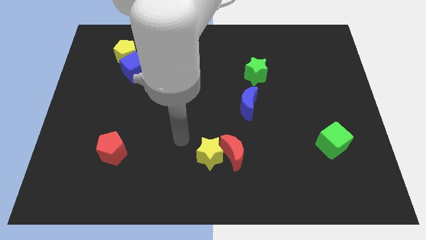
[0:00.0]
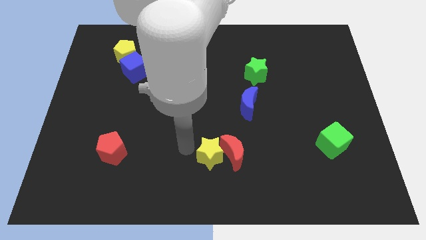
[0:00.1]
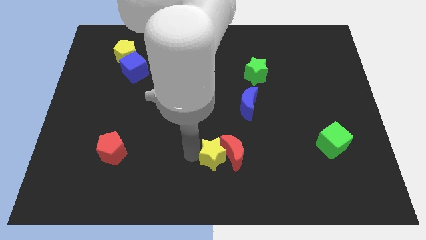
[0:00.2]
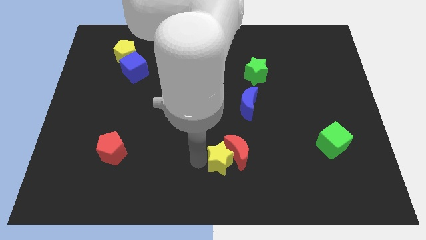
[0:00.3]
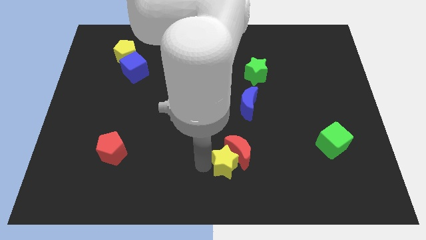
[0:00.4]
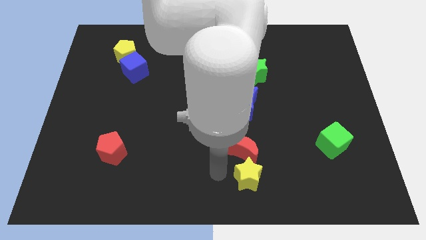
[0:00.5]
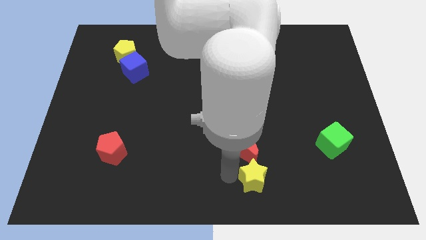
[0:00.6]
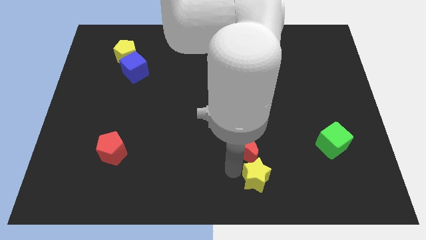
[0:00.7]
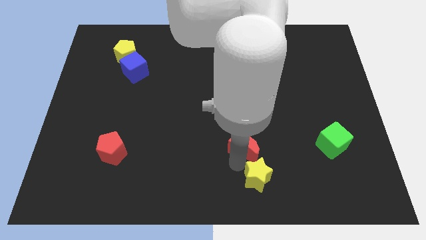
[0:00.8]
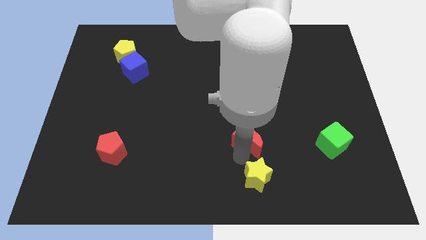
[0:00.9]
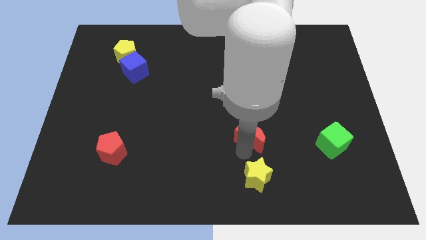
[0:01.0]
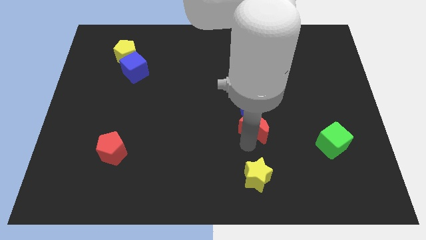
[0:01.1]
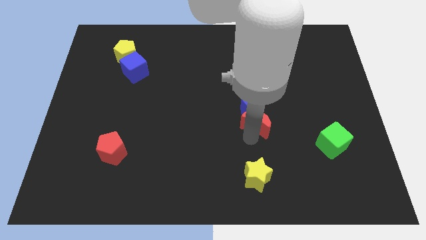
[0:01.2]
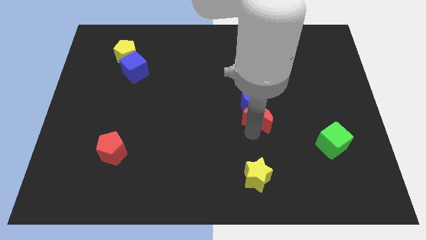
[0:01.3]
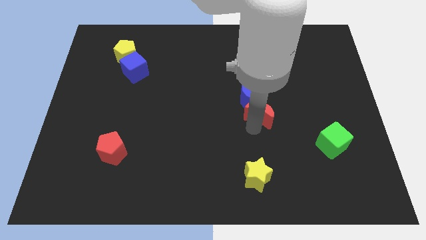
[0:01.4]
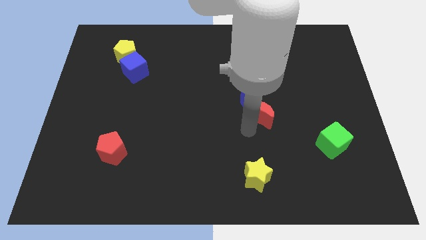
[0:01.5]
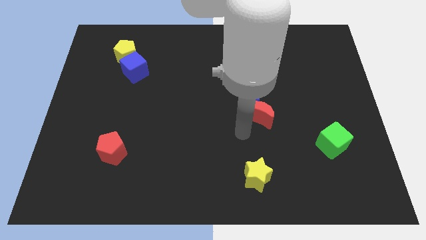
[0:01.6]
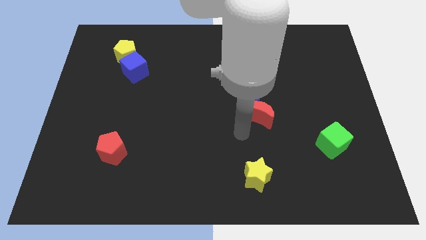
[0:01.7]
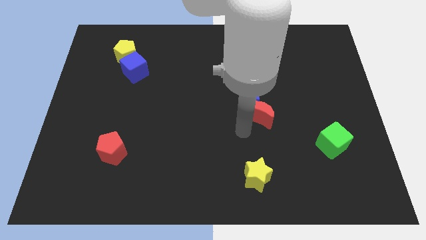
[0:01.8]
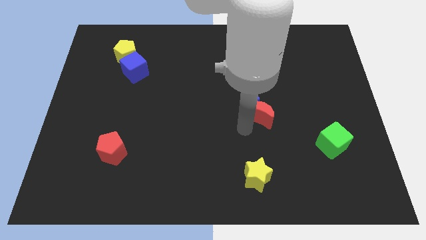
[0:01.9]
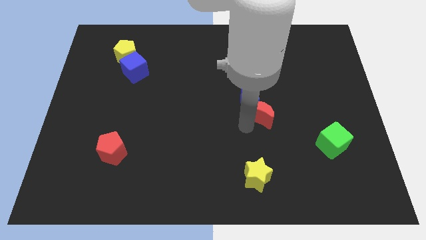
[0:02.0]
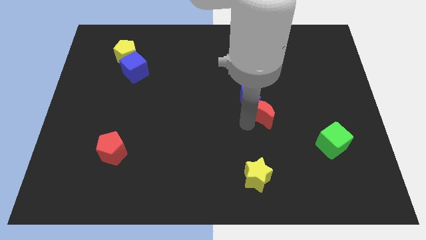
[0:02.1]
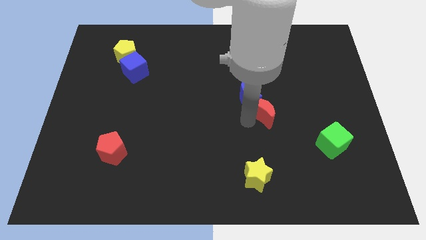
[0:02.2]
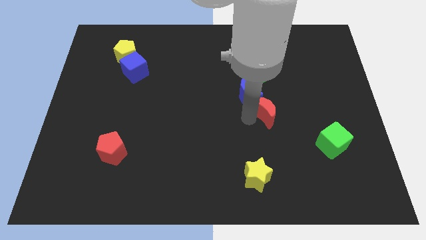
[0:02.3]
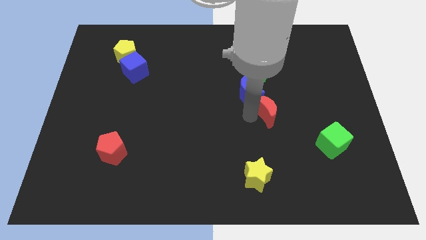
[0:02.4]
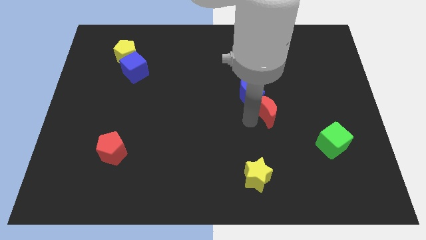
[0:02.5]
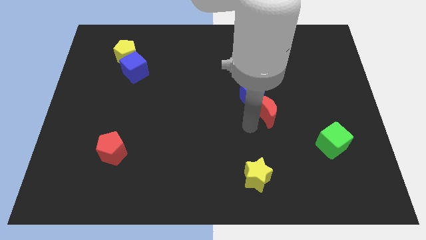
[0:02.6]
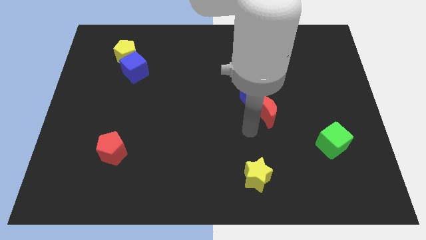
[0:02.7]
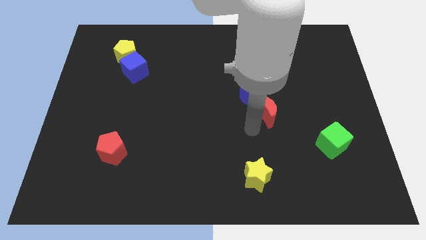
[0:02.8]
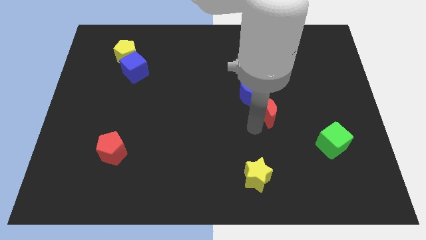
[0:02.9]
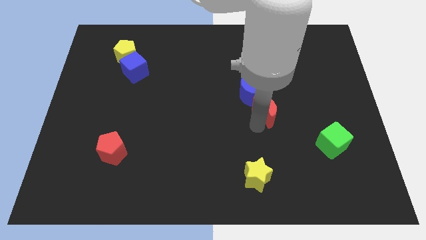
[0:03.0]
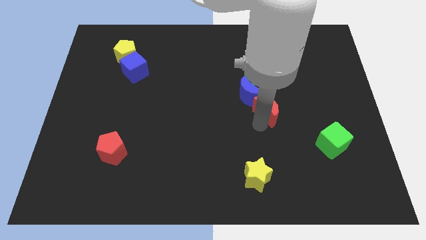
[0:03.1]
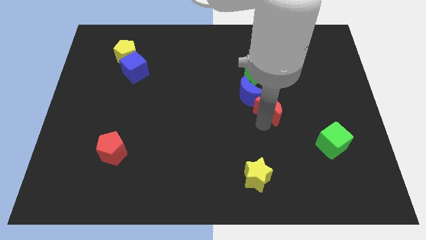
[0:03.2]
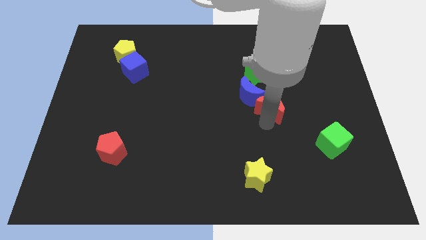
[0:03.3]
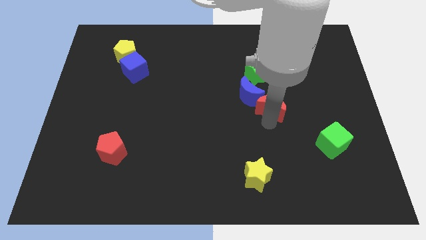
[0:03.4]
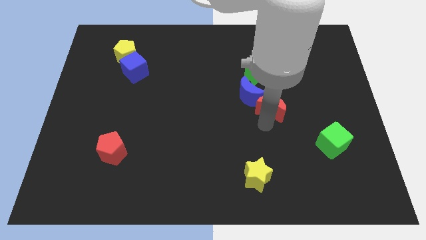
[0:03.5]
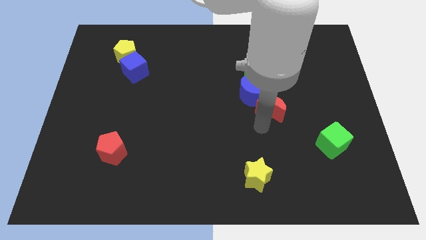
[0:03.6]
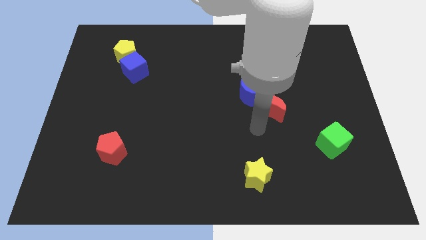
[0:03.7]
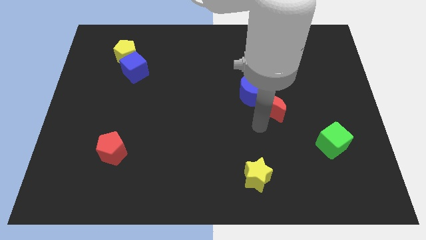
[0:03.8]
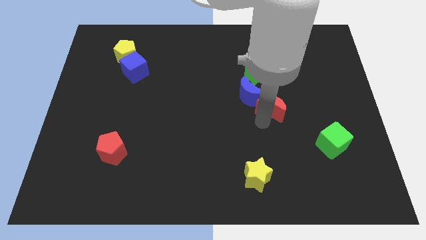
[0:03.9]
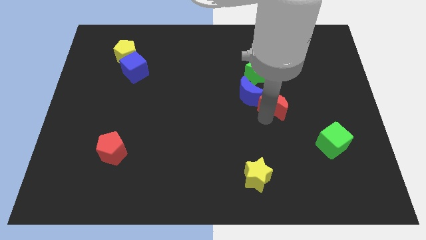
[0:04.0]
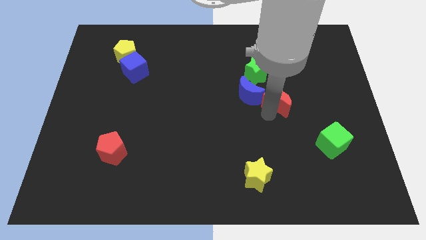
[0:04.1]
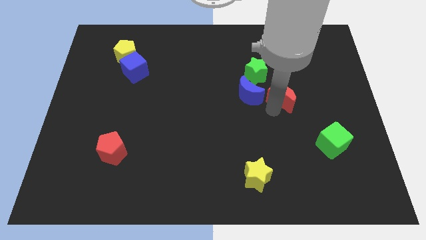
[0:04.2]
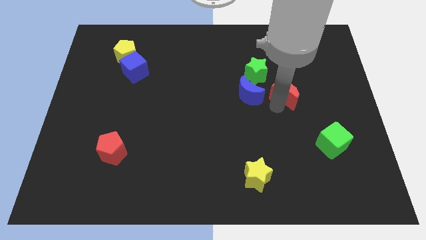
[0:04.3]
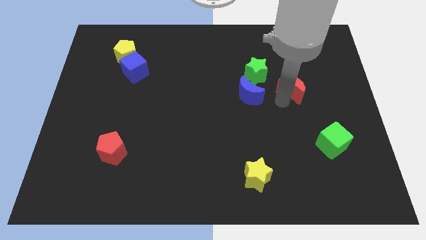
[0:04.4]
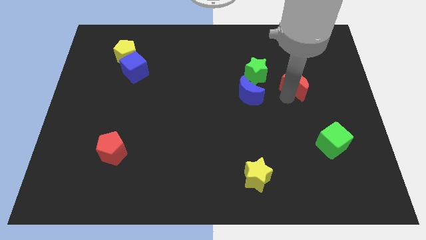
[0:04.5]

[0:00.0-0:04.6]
slide the red moon to the right of the green star

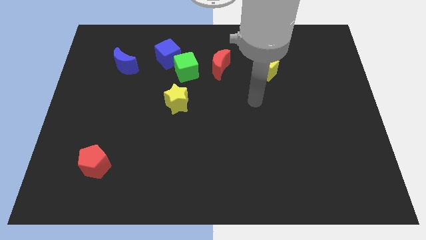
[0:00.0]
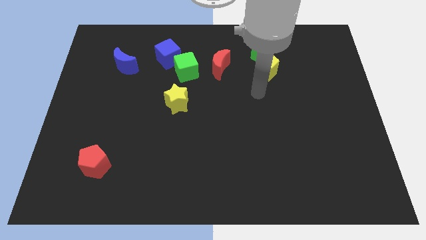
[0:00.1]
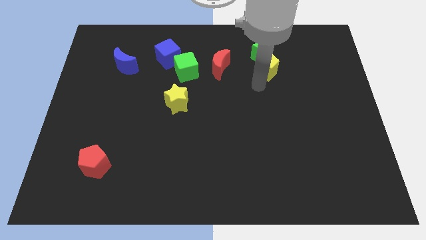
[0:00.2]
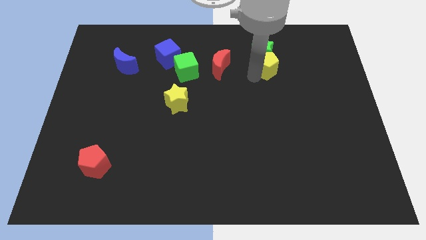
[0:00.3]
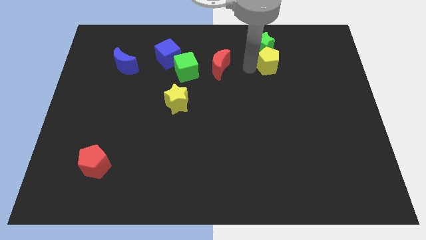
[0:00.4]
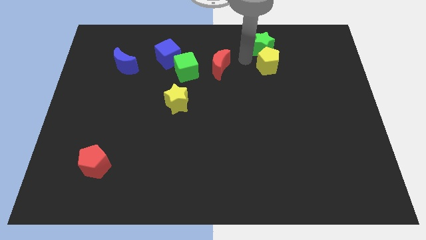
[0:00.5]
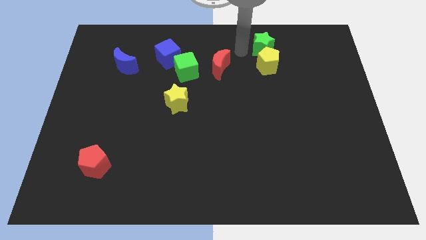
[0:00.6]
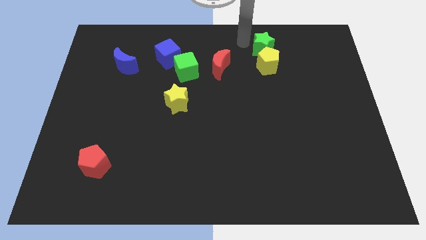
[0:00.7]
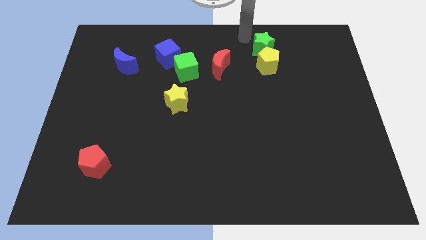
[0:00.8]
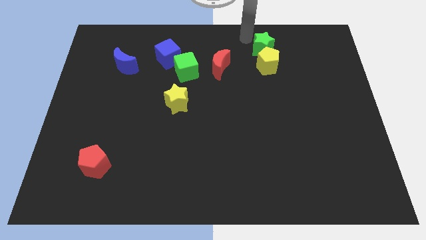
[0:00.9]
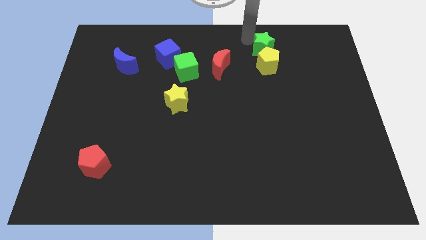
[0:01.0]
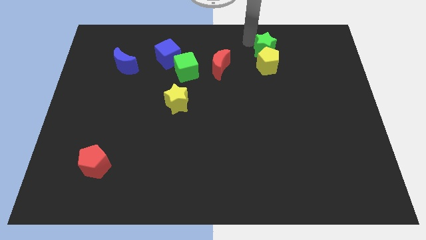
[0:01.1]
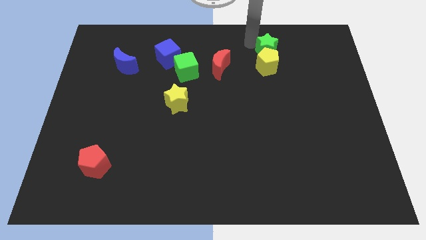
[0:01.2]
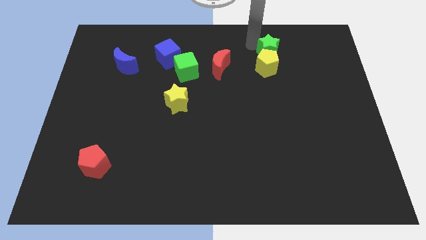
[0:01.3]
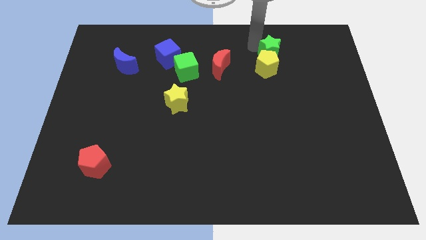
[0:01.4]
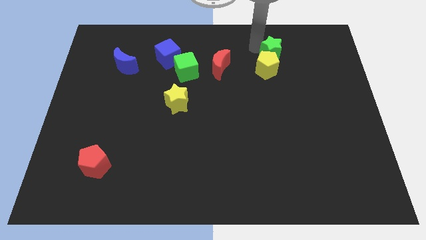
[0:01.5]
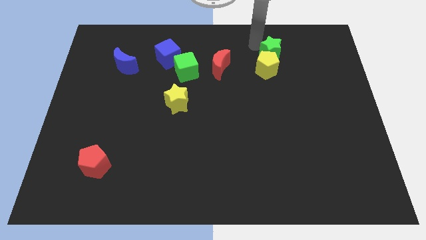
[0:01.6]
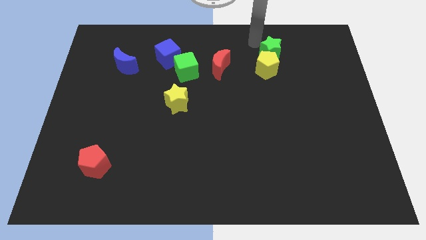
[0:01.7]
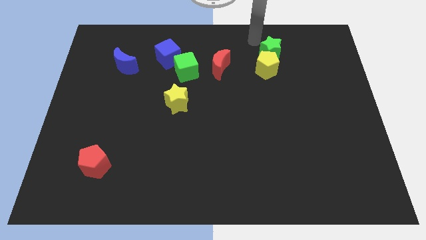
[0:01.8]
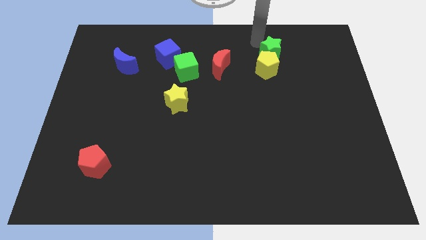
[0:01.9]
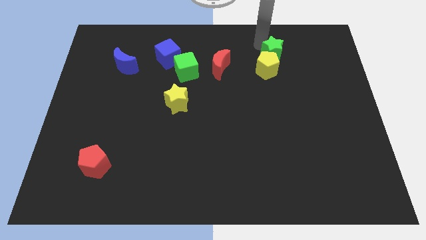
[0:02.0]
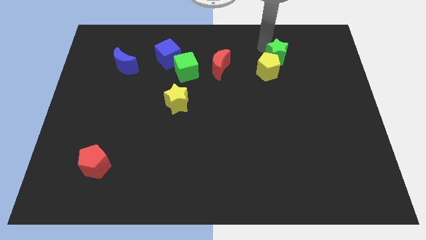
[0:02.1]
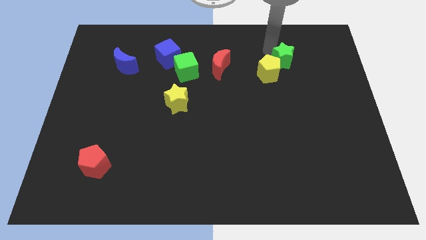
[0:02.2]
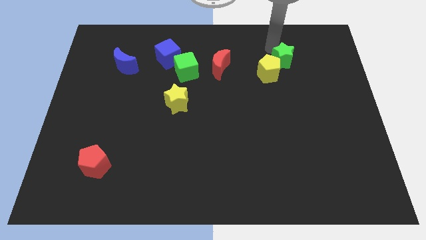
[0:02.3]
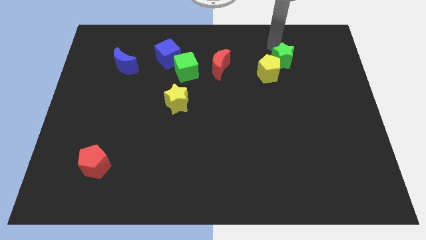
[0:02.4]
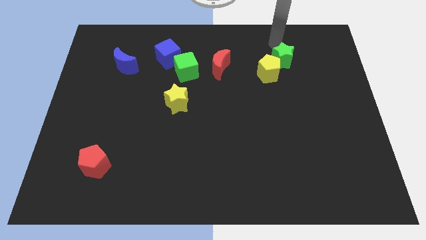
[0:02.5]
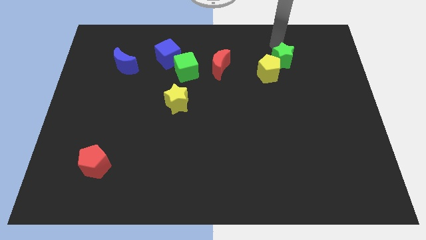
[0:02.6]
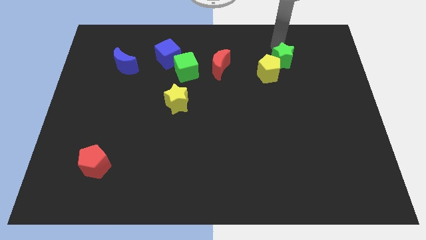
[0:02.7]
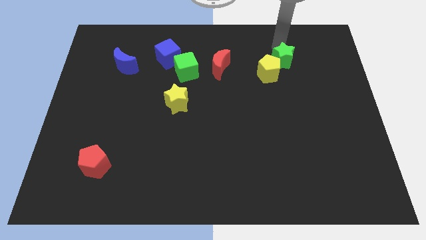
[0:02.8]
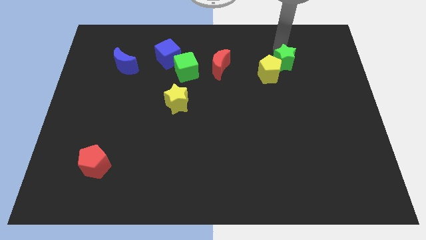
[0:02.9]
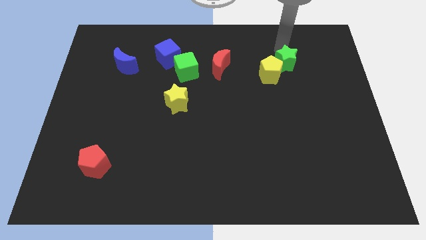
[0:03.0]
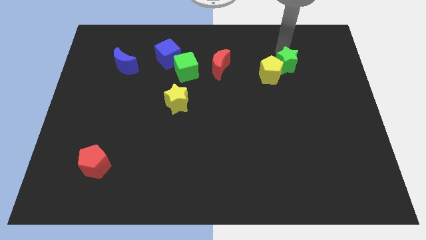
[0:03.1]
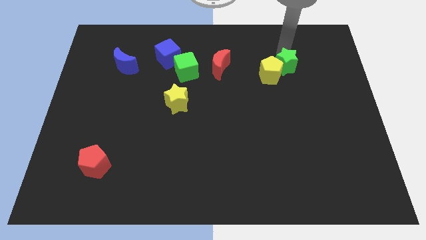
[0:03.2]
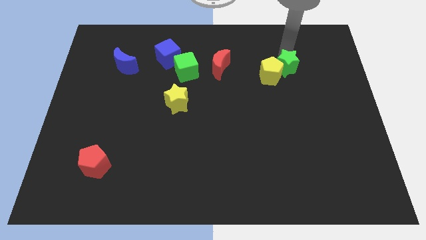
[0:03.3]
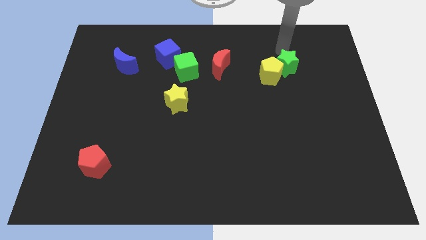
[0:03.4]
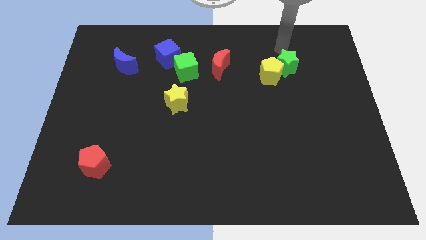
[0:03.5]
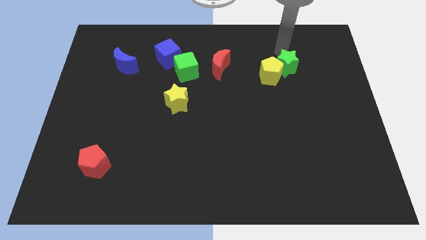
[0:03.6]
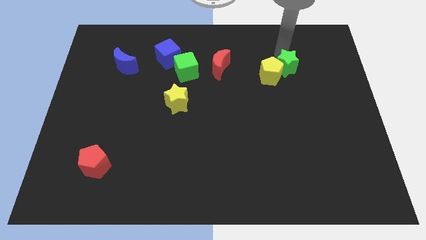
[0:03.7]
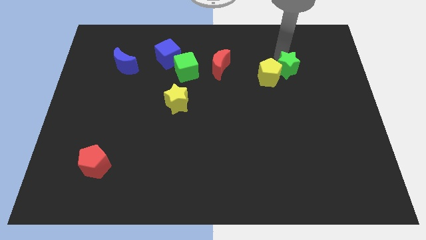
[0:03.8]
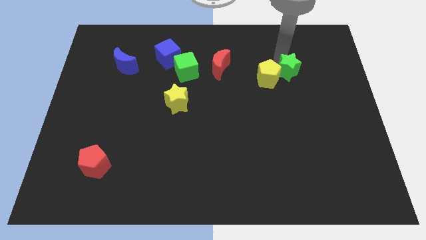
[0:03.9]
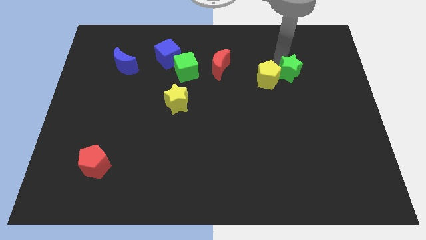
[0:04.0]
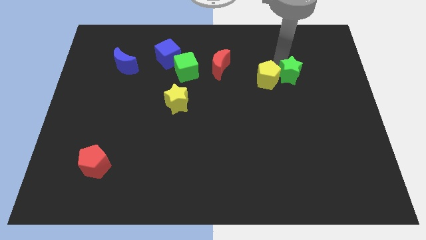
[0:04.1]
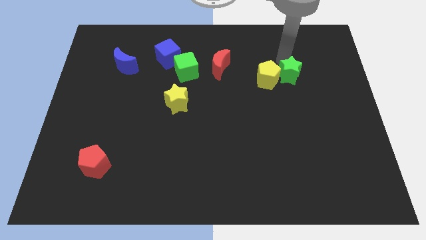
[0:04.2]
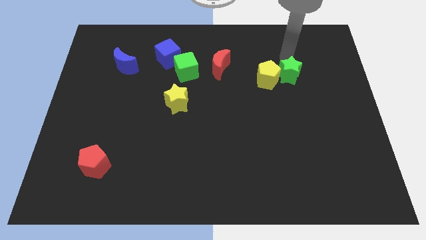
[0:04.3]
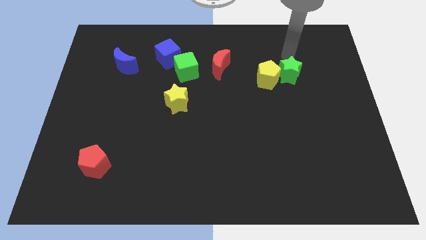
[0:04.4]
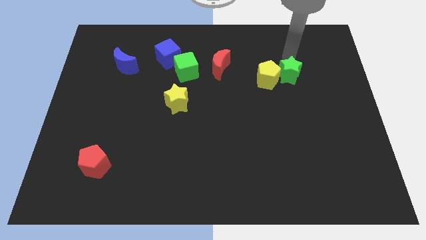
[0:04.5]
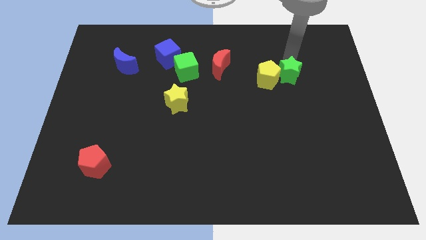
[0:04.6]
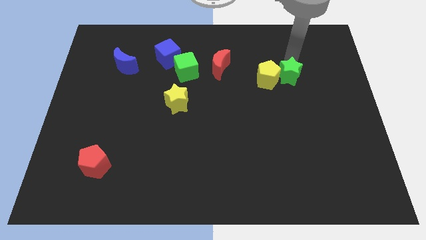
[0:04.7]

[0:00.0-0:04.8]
slide the green star to the bottom right of the yellow pentagon
